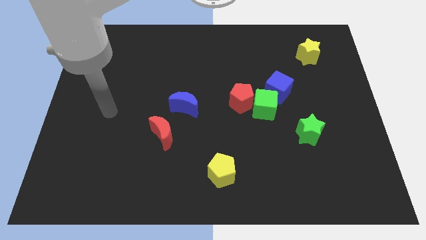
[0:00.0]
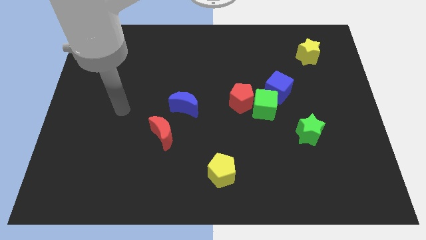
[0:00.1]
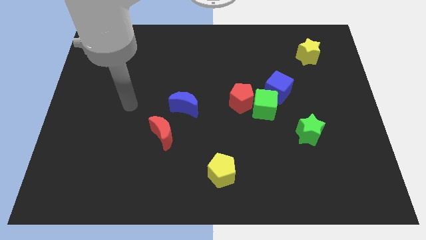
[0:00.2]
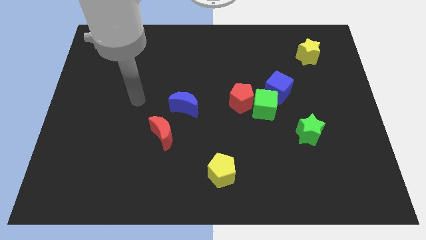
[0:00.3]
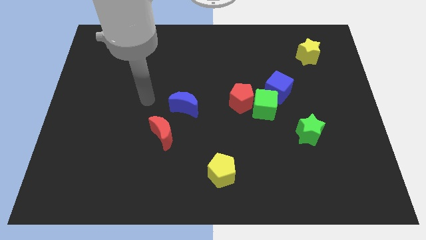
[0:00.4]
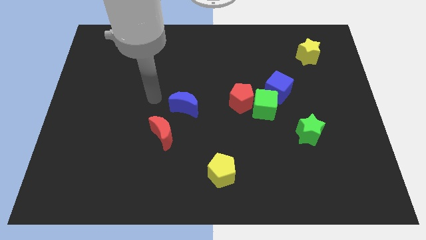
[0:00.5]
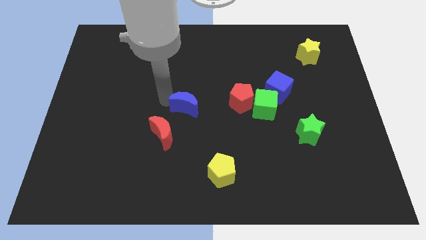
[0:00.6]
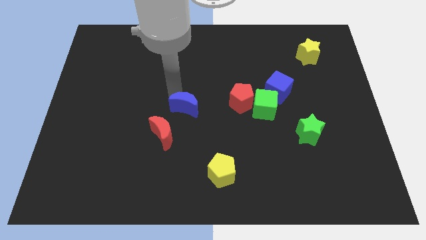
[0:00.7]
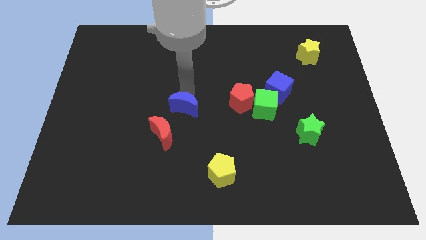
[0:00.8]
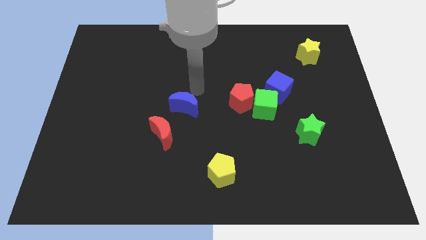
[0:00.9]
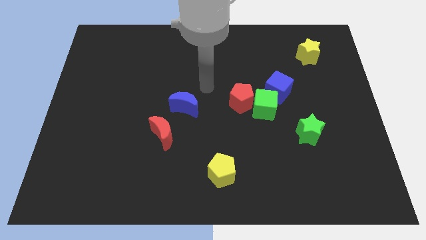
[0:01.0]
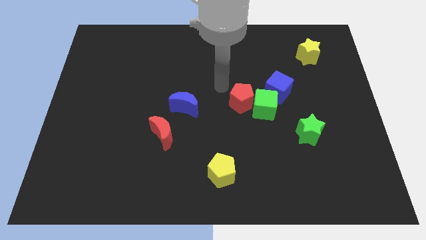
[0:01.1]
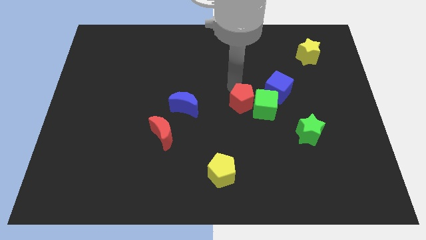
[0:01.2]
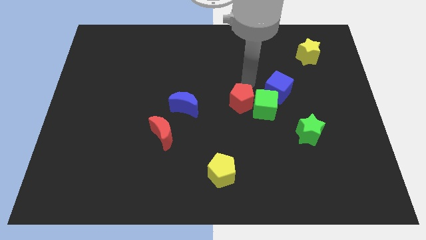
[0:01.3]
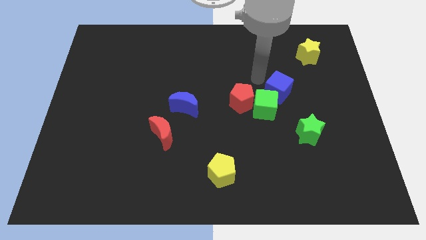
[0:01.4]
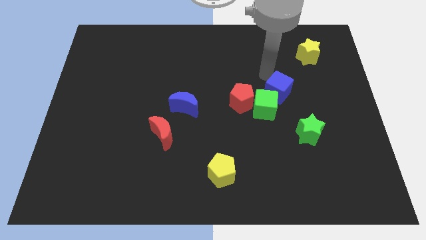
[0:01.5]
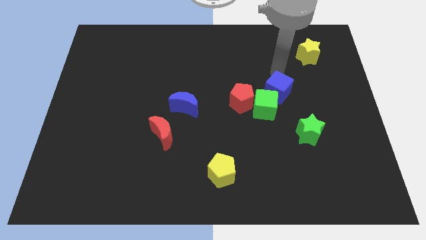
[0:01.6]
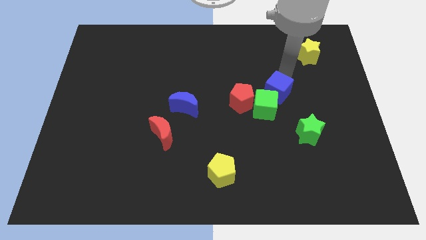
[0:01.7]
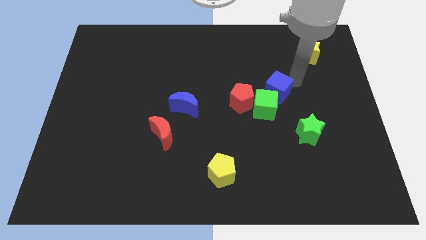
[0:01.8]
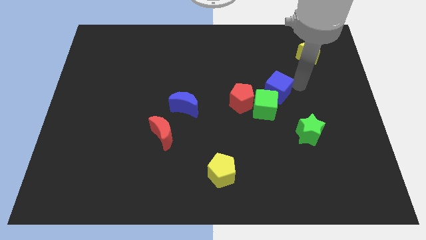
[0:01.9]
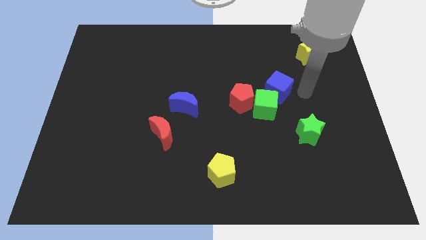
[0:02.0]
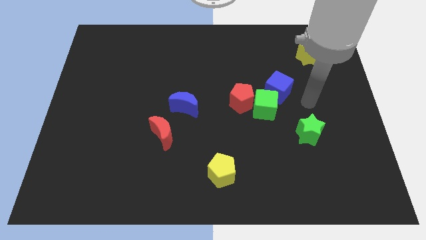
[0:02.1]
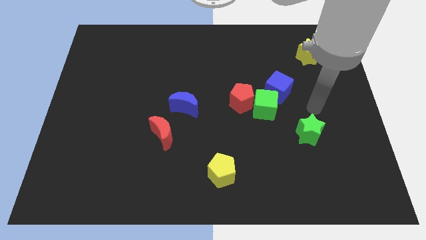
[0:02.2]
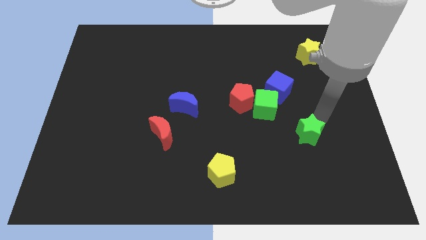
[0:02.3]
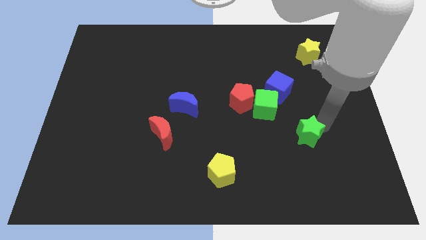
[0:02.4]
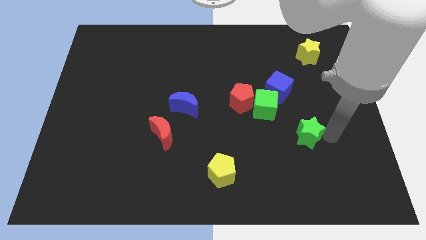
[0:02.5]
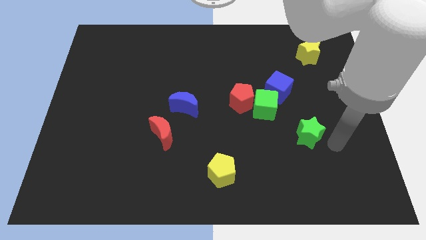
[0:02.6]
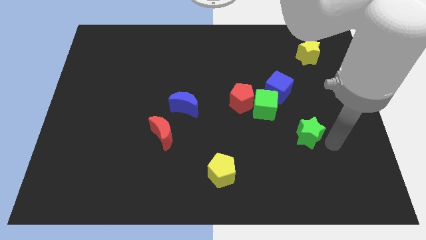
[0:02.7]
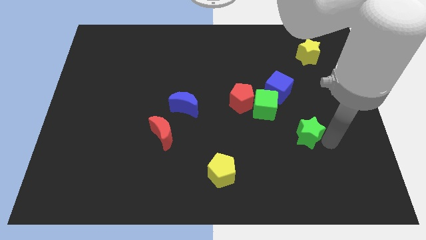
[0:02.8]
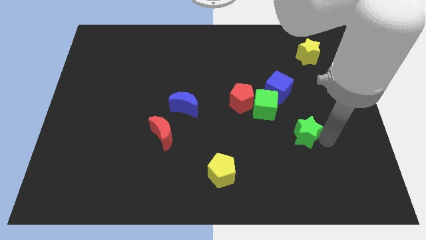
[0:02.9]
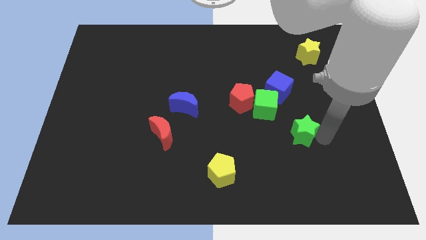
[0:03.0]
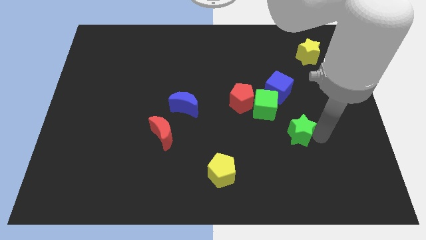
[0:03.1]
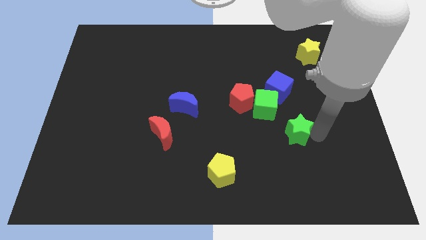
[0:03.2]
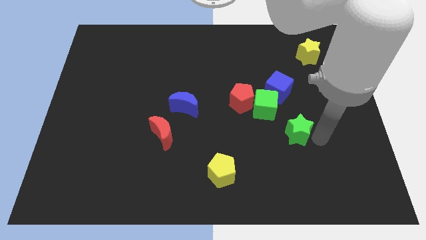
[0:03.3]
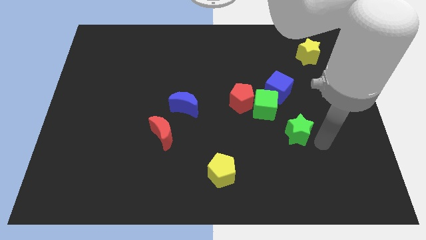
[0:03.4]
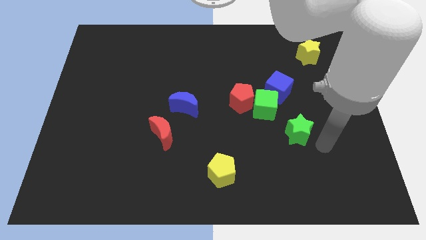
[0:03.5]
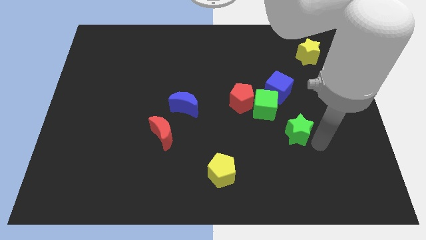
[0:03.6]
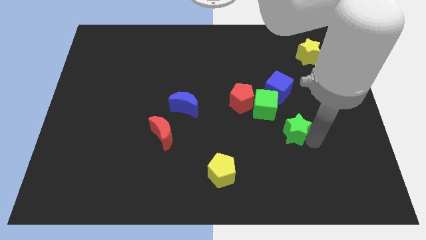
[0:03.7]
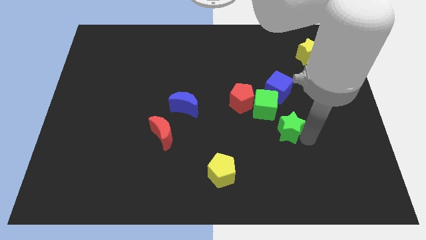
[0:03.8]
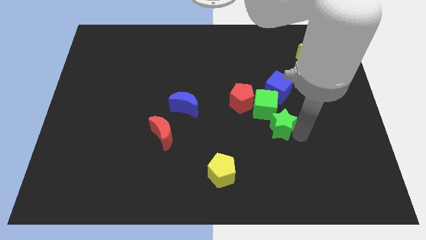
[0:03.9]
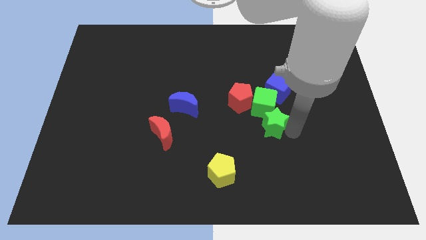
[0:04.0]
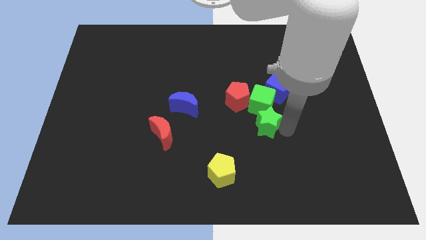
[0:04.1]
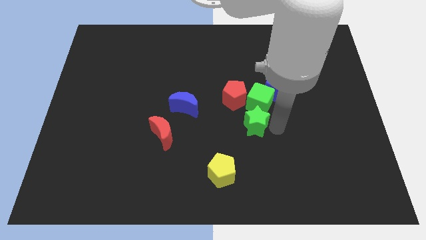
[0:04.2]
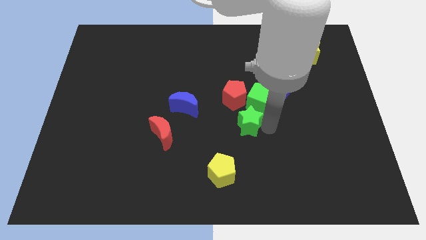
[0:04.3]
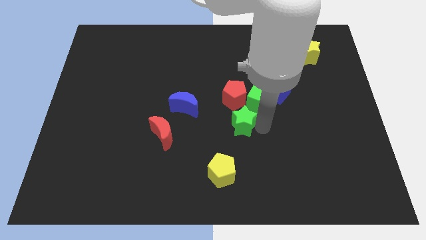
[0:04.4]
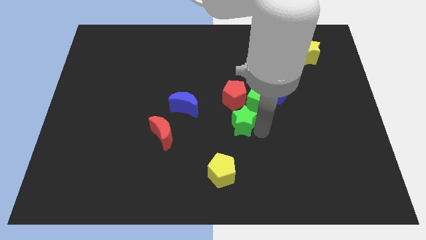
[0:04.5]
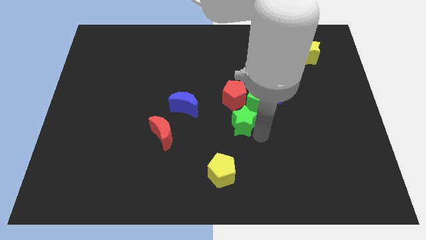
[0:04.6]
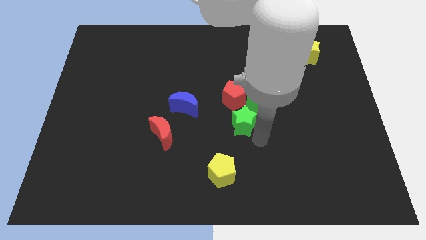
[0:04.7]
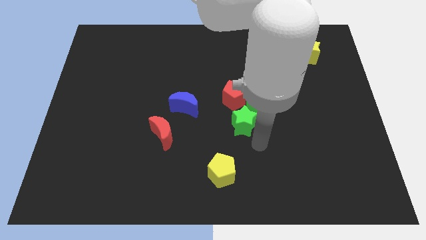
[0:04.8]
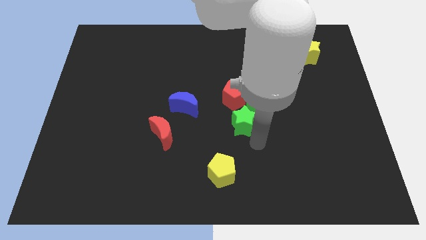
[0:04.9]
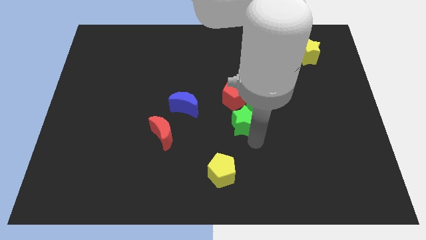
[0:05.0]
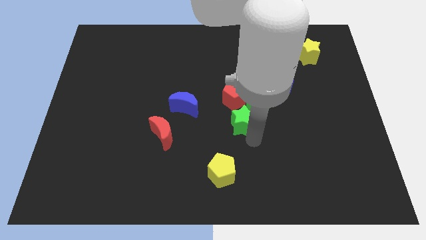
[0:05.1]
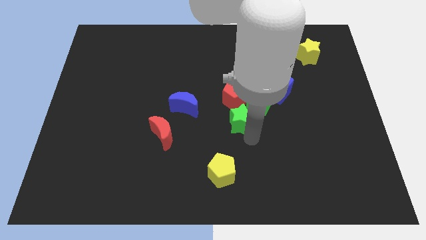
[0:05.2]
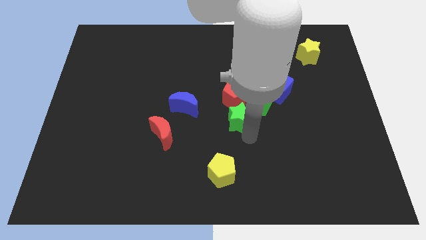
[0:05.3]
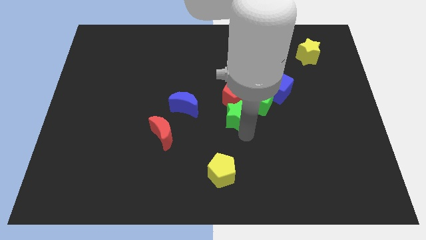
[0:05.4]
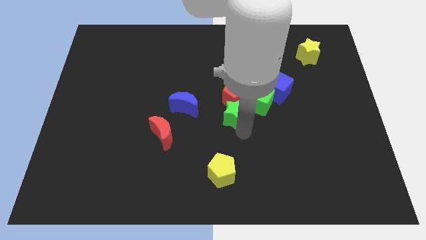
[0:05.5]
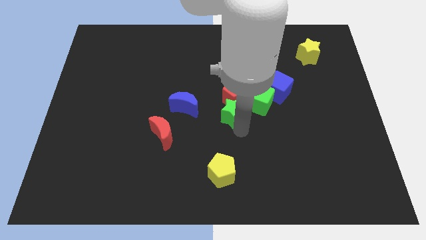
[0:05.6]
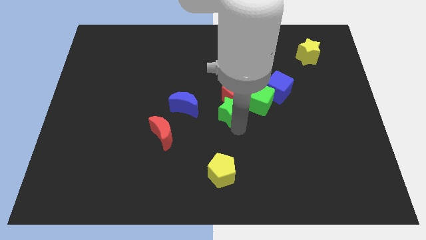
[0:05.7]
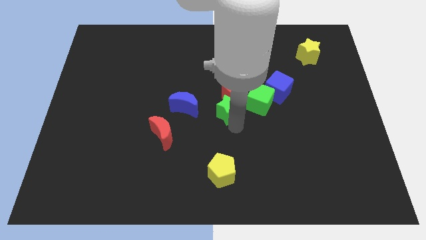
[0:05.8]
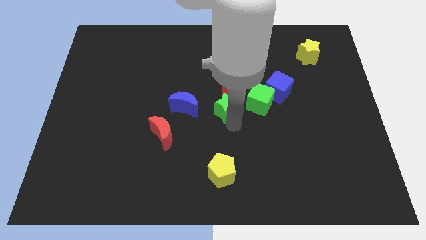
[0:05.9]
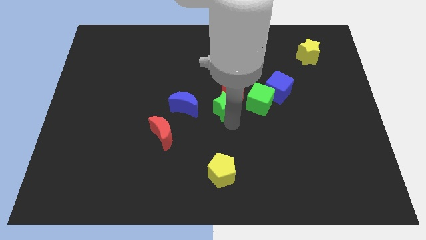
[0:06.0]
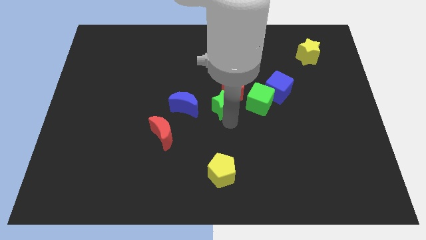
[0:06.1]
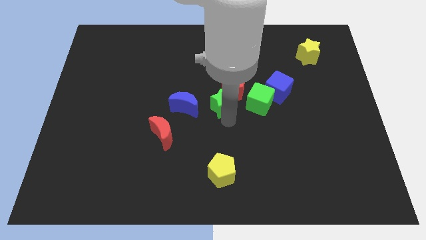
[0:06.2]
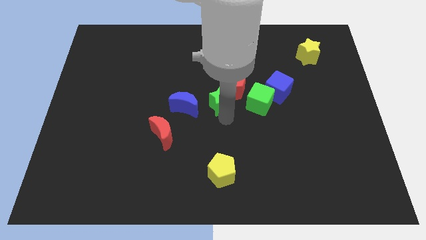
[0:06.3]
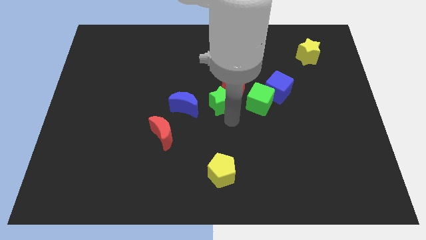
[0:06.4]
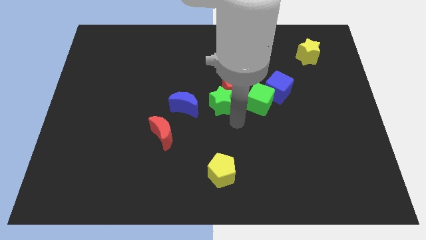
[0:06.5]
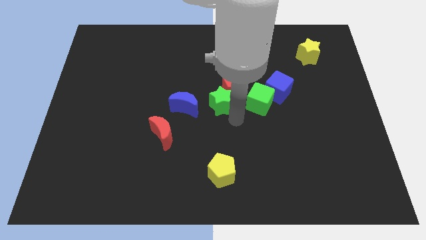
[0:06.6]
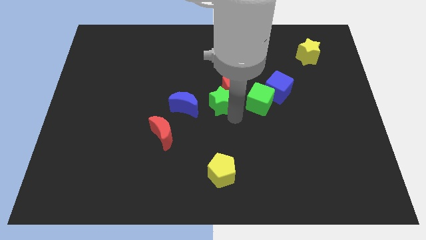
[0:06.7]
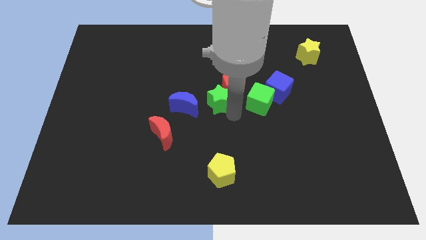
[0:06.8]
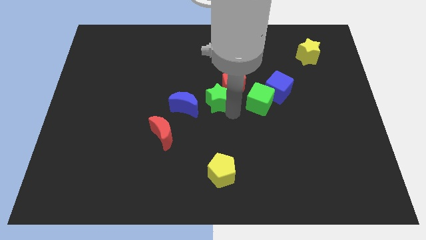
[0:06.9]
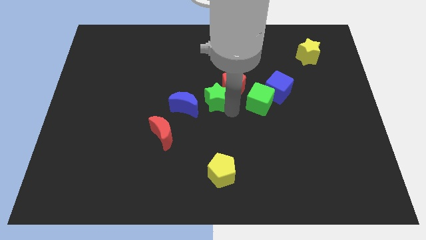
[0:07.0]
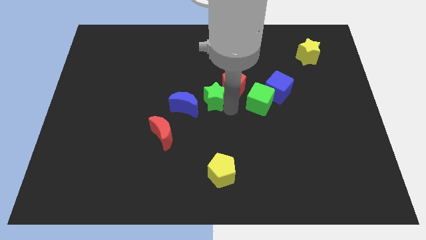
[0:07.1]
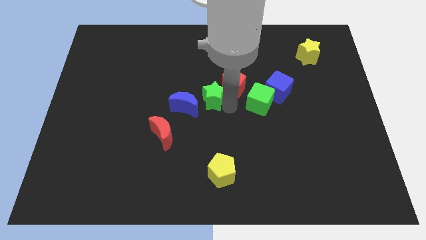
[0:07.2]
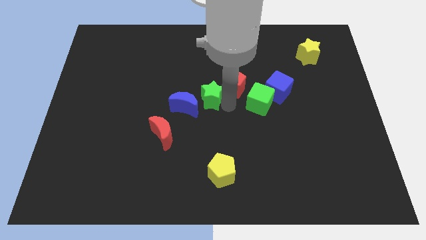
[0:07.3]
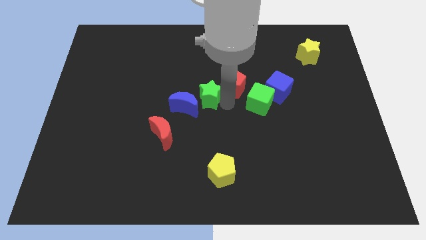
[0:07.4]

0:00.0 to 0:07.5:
move the green star upwards and then to the left

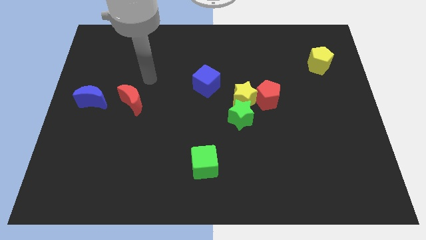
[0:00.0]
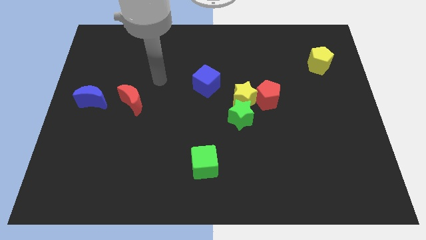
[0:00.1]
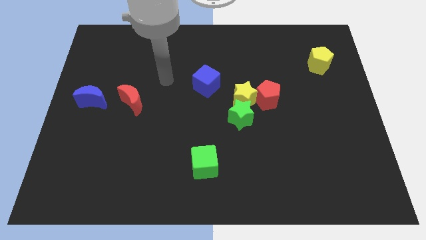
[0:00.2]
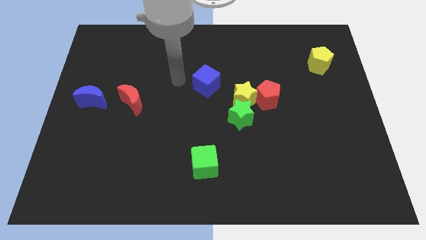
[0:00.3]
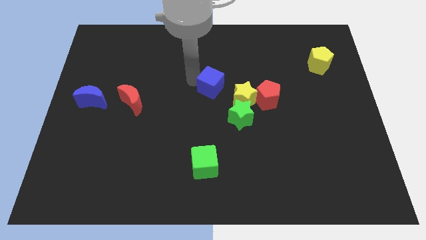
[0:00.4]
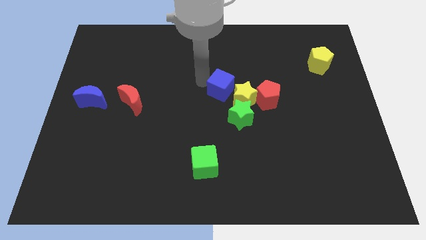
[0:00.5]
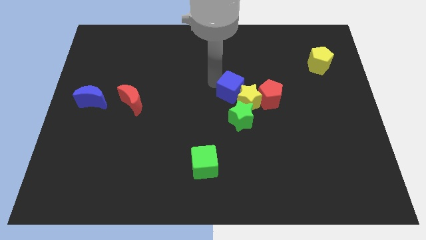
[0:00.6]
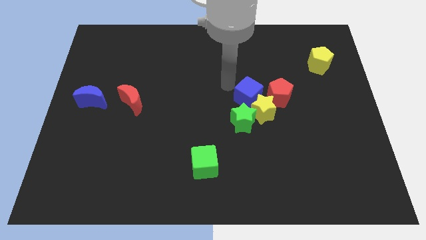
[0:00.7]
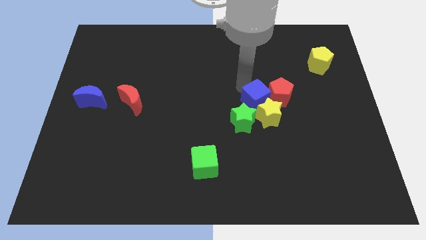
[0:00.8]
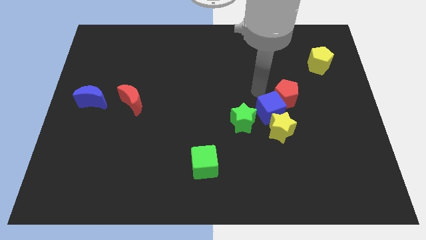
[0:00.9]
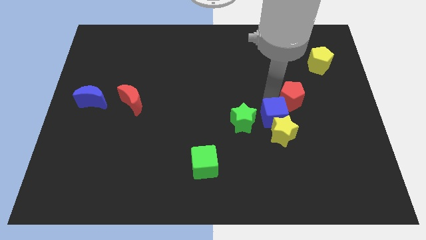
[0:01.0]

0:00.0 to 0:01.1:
slightly move the yellow star downwards
